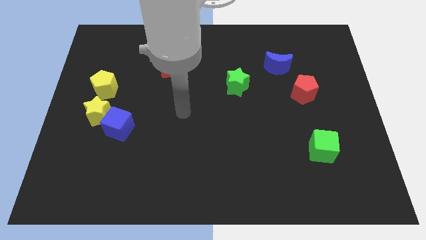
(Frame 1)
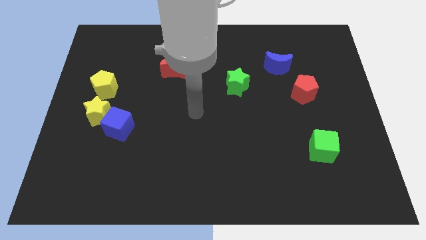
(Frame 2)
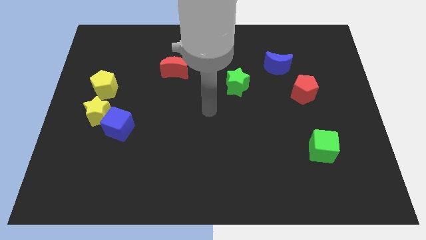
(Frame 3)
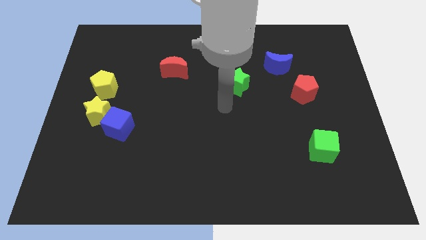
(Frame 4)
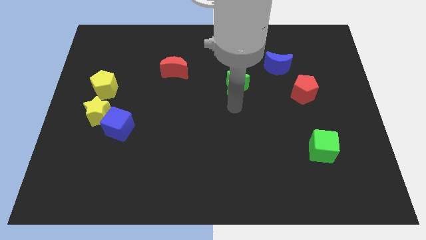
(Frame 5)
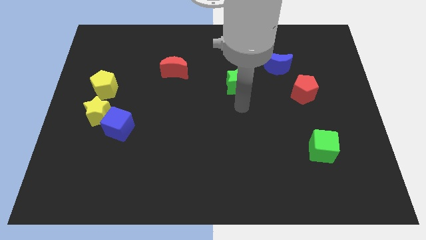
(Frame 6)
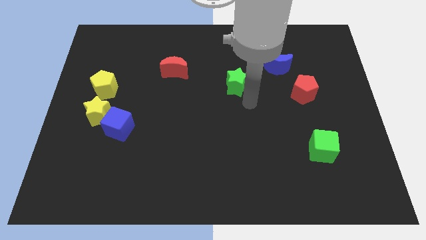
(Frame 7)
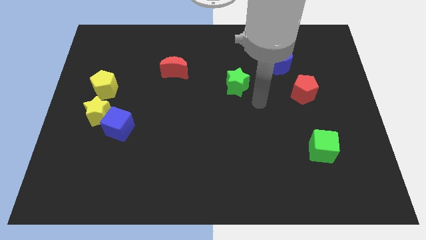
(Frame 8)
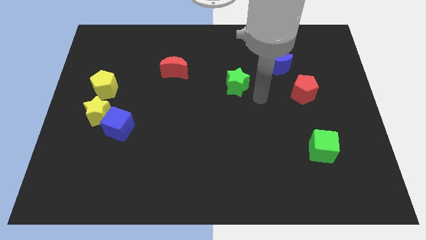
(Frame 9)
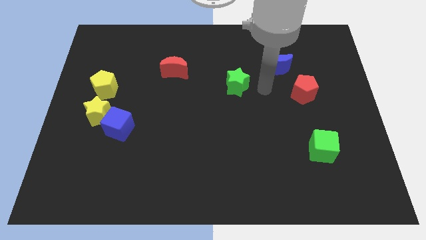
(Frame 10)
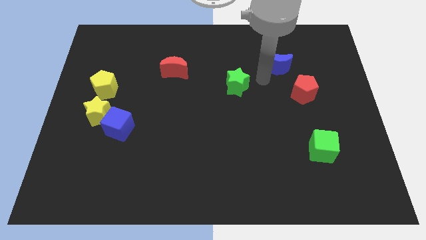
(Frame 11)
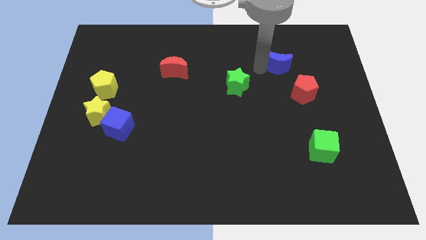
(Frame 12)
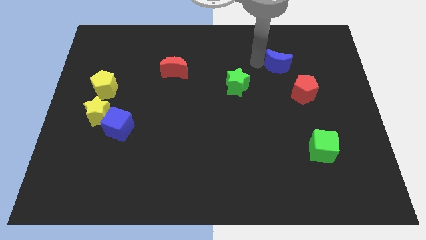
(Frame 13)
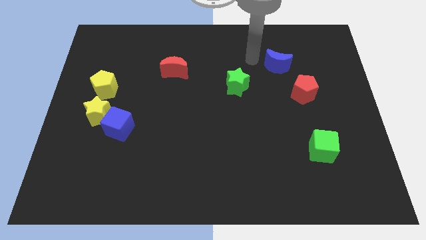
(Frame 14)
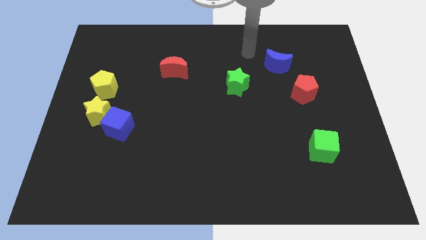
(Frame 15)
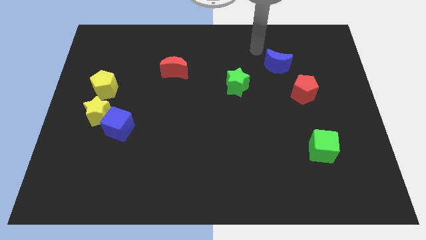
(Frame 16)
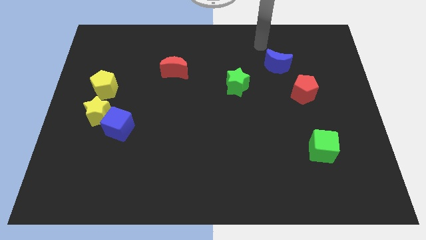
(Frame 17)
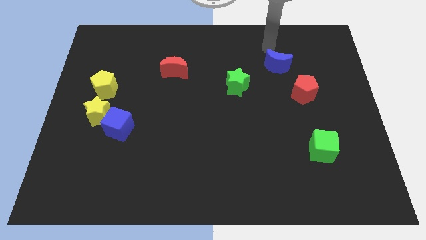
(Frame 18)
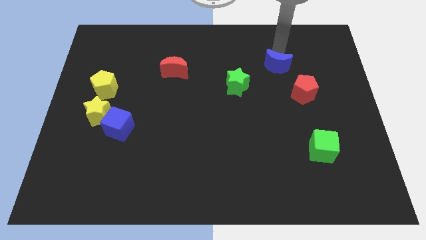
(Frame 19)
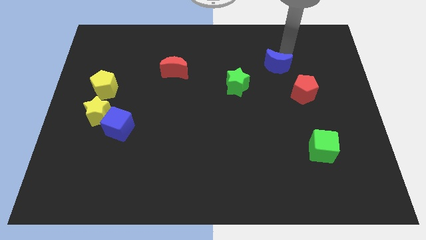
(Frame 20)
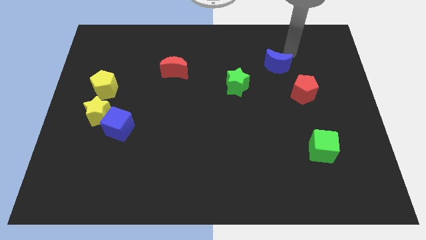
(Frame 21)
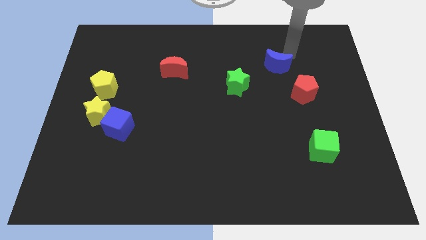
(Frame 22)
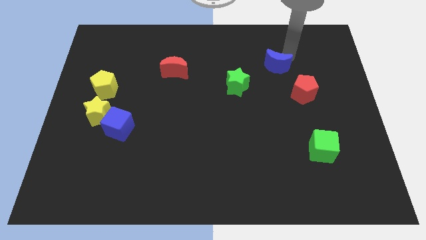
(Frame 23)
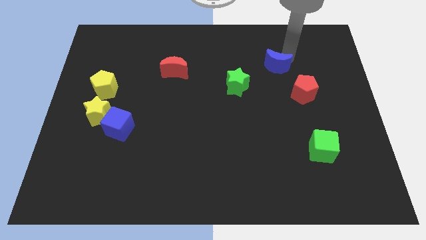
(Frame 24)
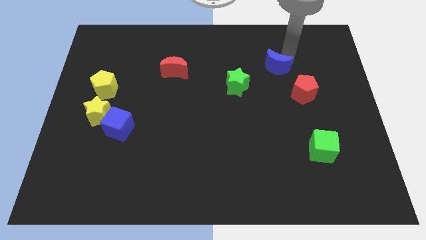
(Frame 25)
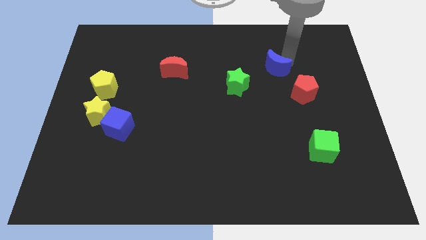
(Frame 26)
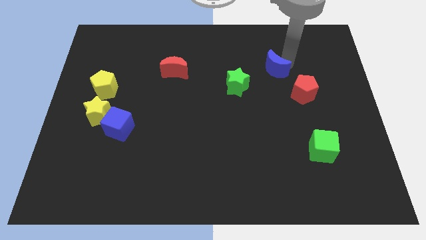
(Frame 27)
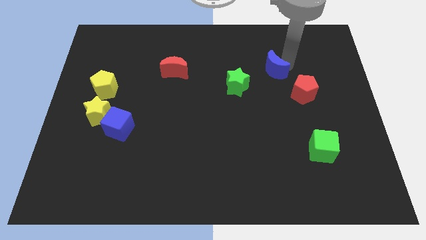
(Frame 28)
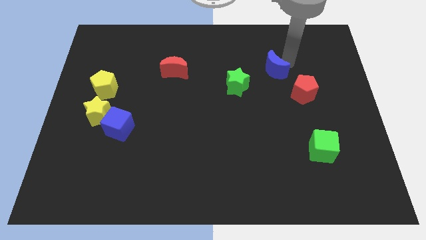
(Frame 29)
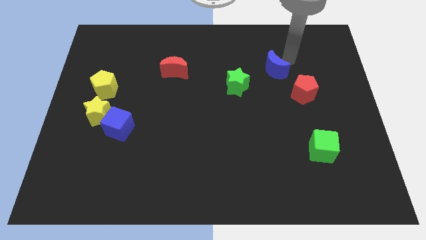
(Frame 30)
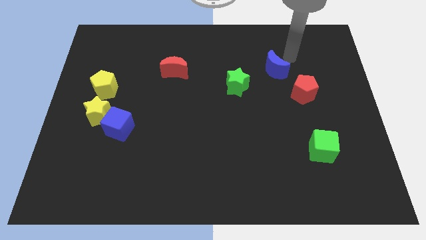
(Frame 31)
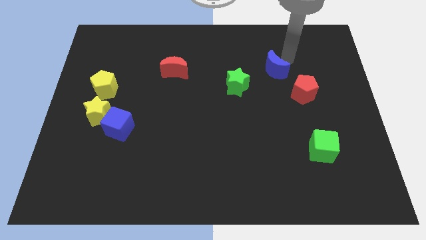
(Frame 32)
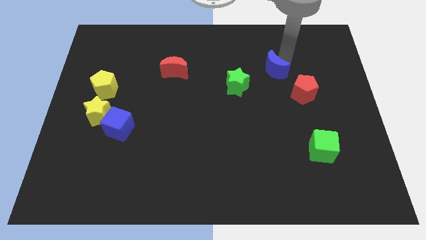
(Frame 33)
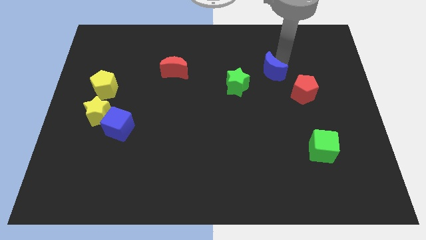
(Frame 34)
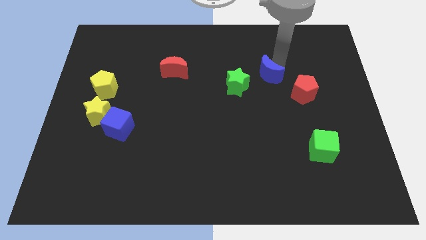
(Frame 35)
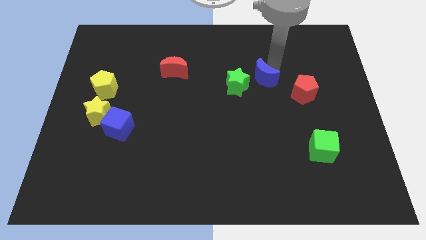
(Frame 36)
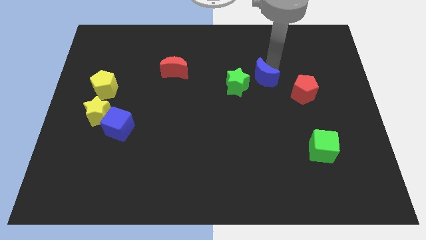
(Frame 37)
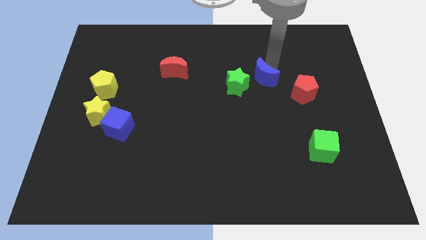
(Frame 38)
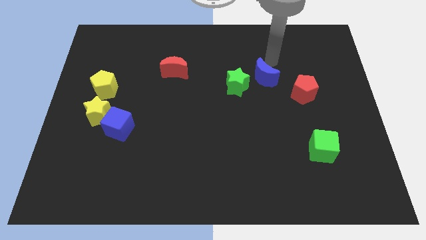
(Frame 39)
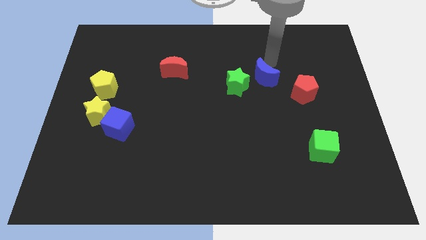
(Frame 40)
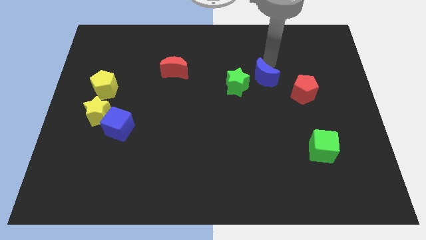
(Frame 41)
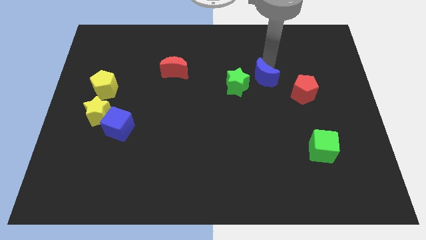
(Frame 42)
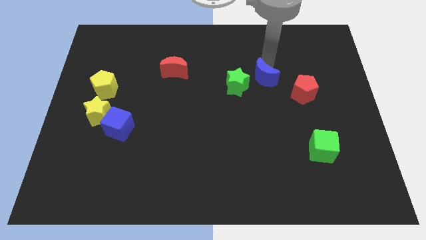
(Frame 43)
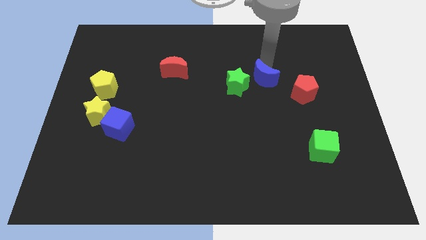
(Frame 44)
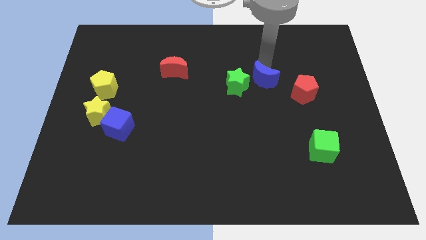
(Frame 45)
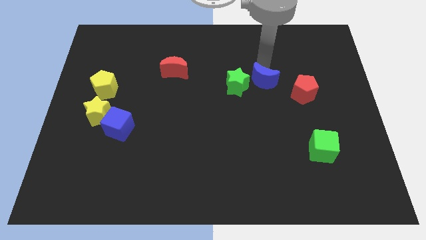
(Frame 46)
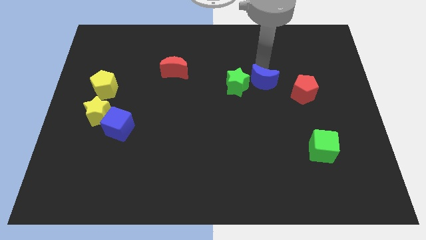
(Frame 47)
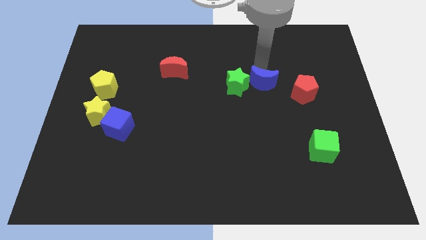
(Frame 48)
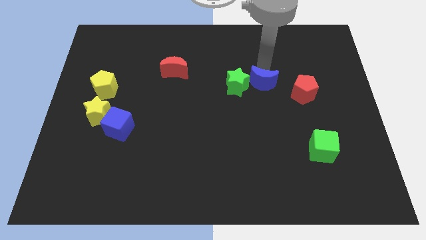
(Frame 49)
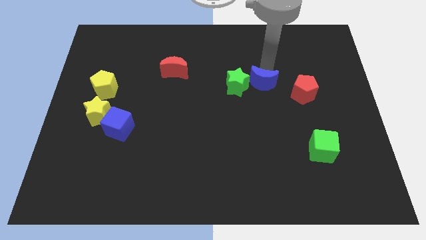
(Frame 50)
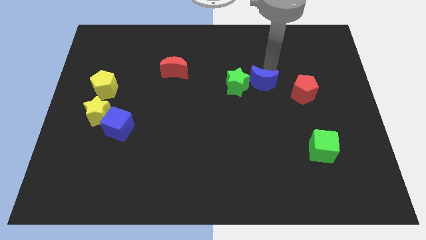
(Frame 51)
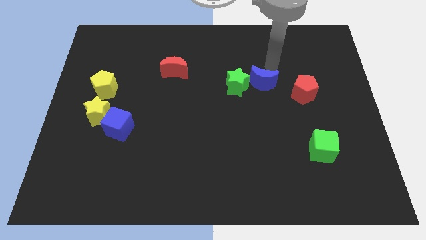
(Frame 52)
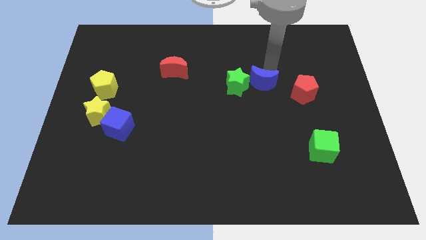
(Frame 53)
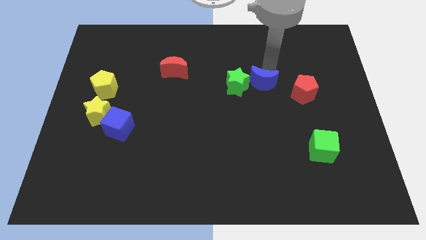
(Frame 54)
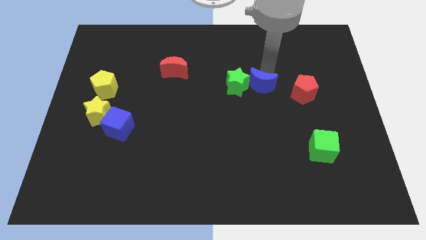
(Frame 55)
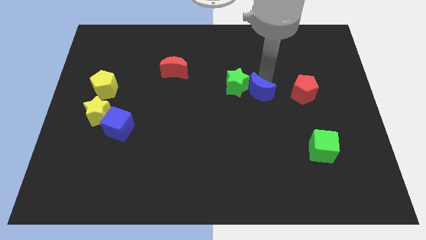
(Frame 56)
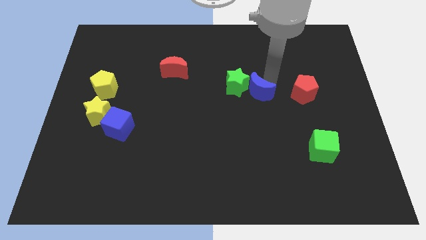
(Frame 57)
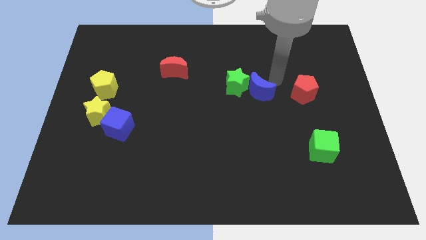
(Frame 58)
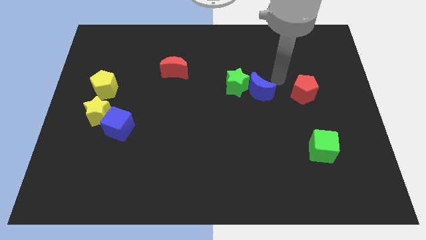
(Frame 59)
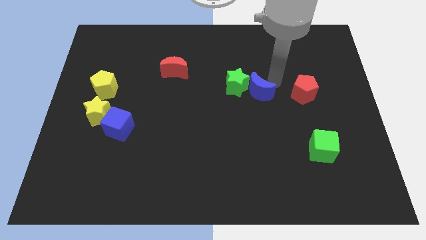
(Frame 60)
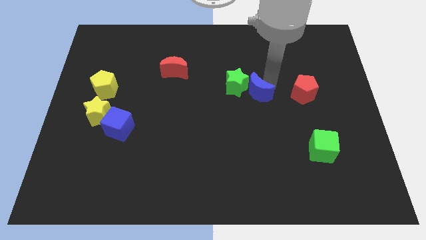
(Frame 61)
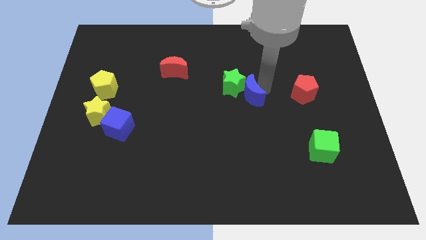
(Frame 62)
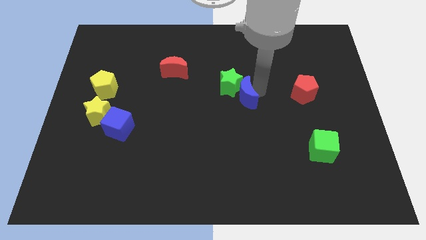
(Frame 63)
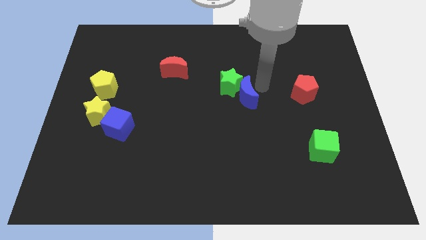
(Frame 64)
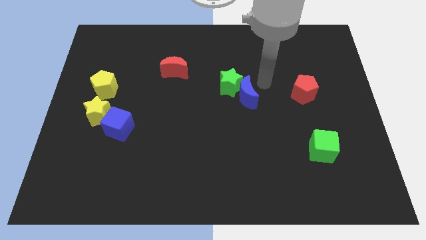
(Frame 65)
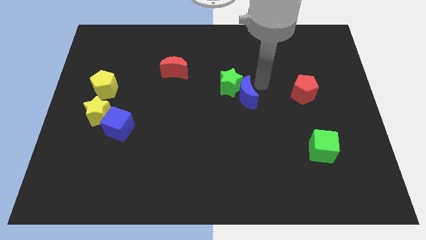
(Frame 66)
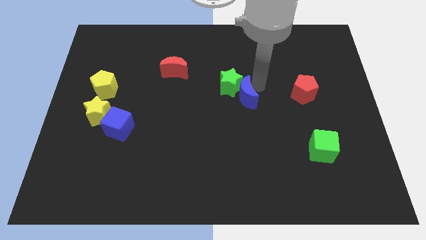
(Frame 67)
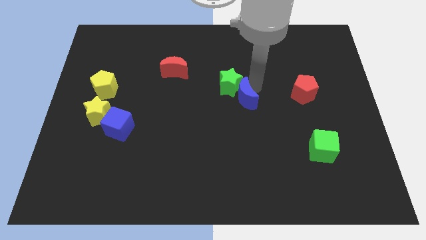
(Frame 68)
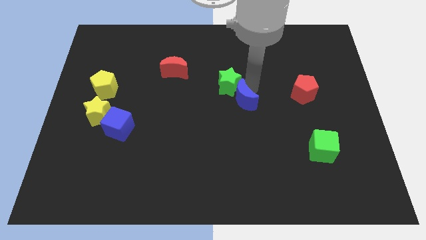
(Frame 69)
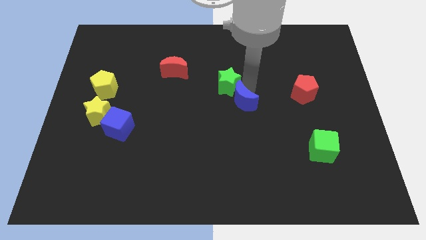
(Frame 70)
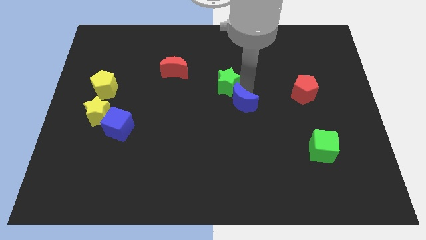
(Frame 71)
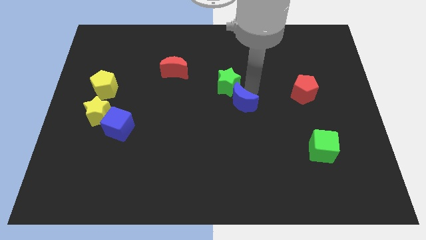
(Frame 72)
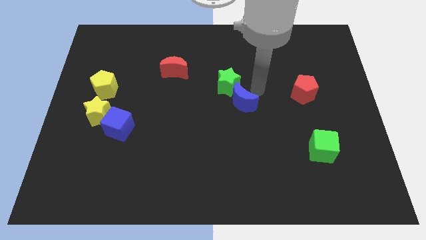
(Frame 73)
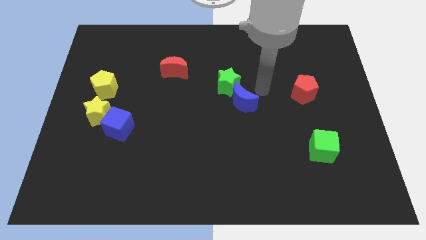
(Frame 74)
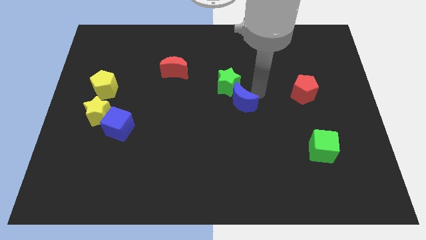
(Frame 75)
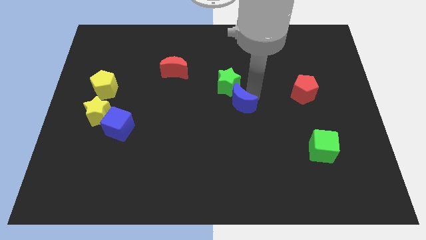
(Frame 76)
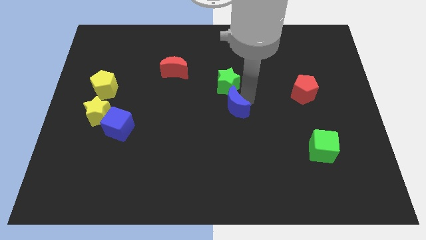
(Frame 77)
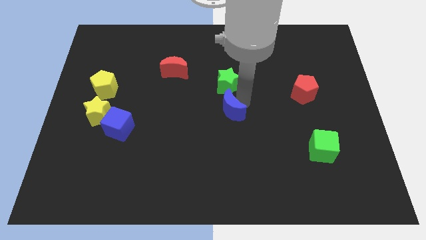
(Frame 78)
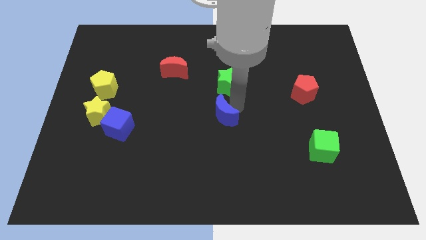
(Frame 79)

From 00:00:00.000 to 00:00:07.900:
slide the blue moon diagonally down and to the left

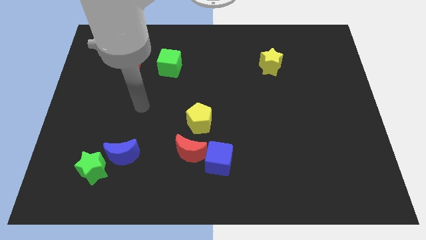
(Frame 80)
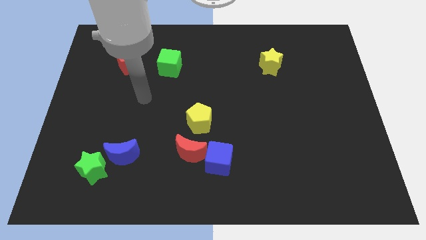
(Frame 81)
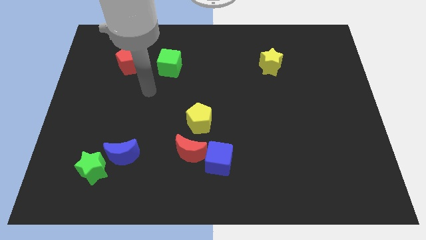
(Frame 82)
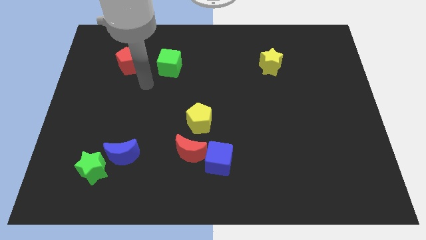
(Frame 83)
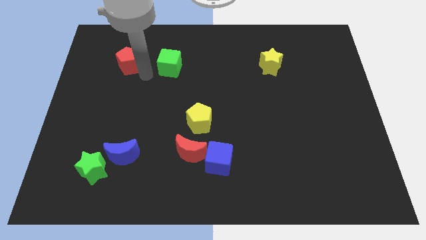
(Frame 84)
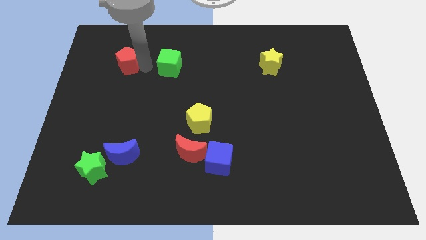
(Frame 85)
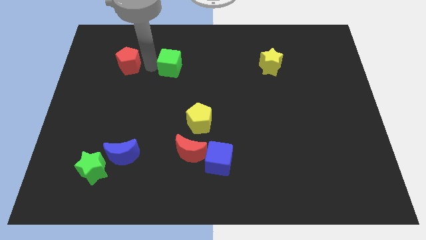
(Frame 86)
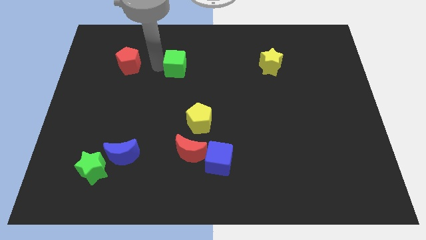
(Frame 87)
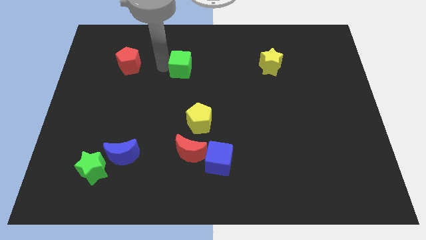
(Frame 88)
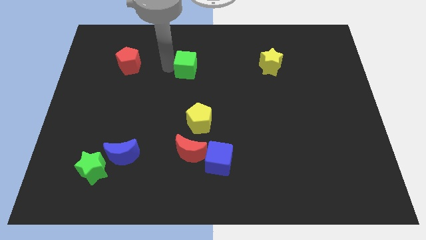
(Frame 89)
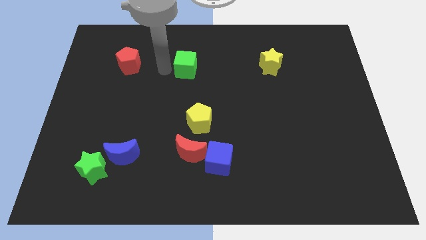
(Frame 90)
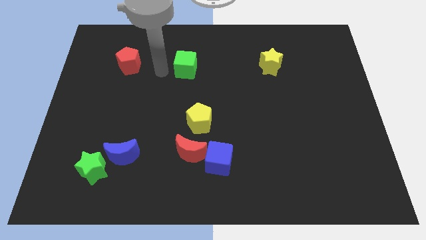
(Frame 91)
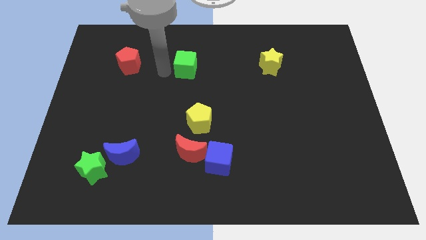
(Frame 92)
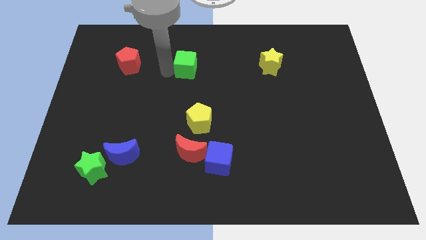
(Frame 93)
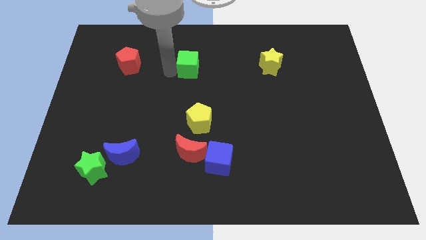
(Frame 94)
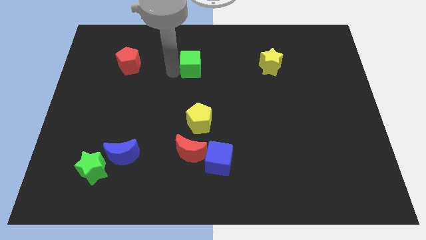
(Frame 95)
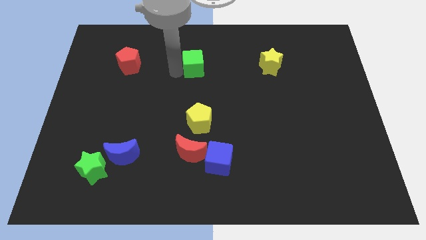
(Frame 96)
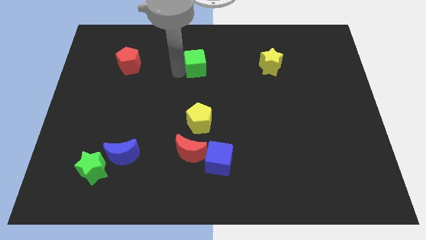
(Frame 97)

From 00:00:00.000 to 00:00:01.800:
slide the green cube a bit right
